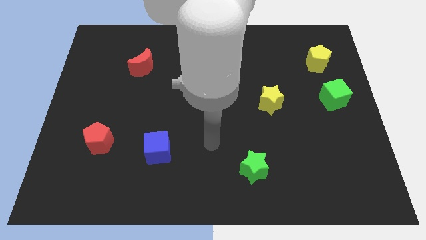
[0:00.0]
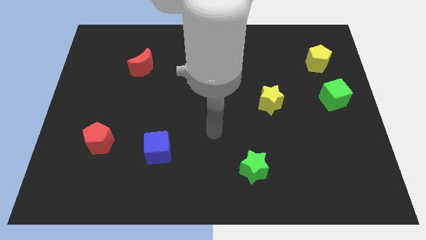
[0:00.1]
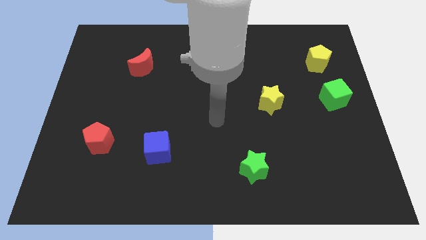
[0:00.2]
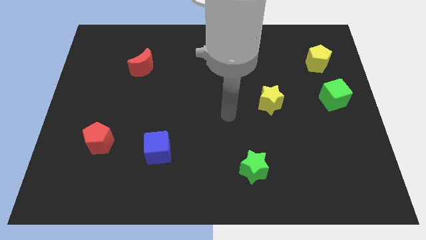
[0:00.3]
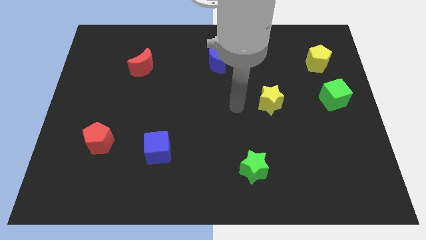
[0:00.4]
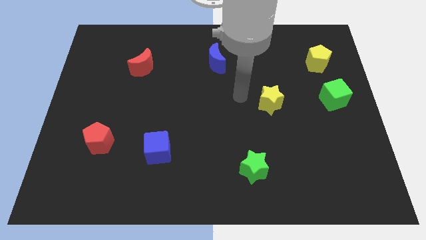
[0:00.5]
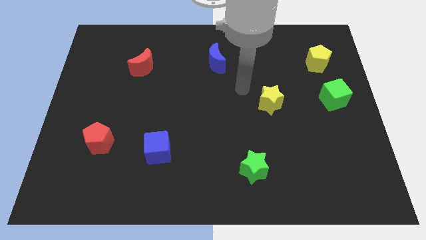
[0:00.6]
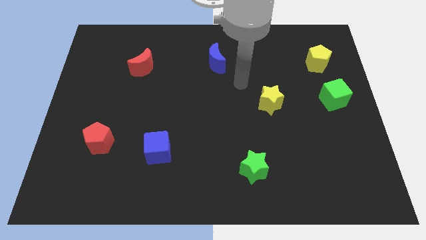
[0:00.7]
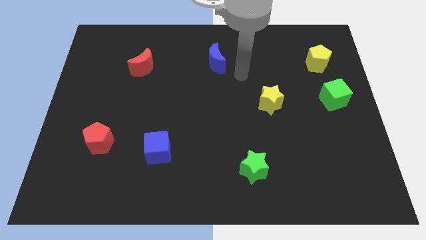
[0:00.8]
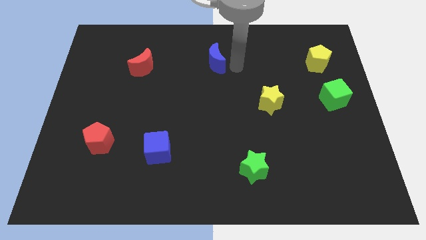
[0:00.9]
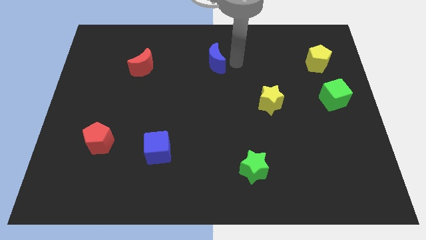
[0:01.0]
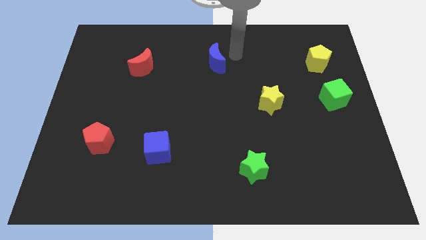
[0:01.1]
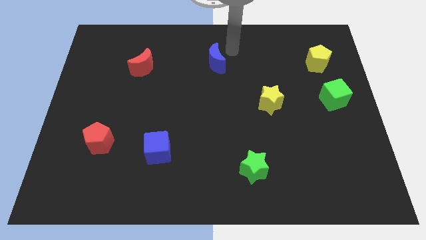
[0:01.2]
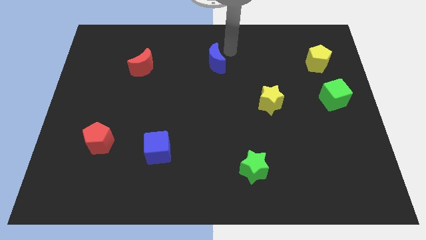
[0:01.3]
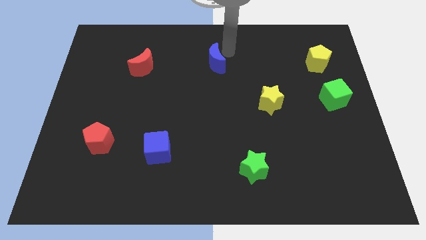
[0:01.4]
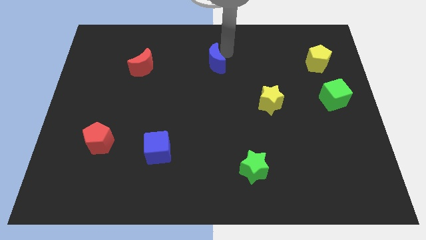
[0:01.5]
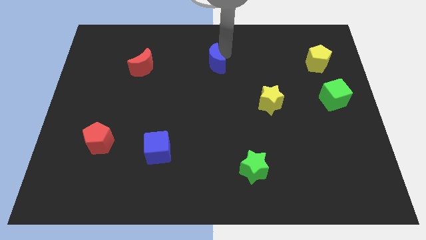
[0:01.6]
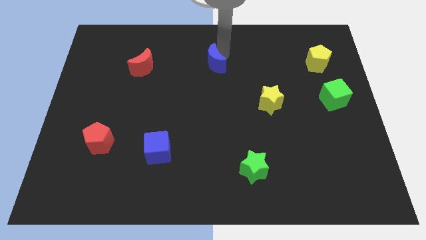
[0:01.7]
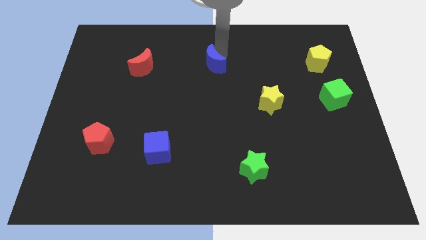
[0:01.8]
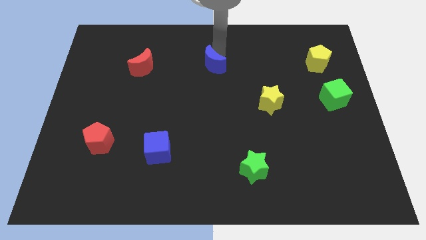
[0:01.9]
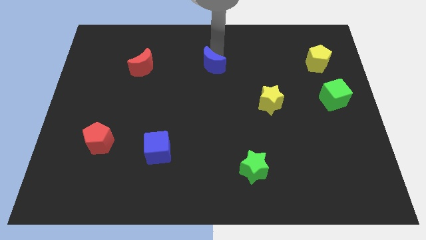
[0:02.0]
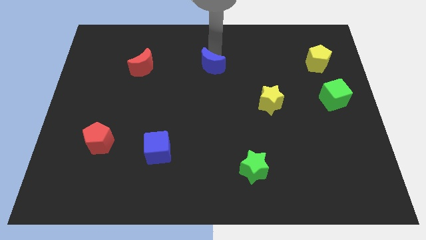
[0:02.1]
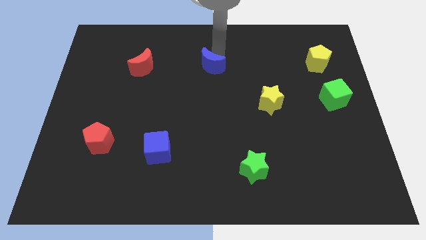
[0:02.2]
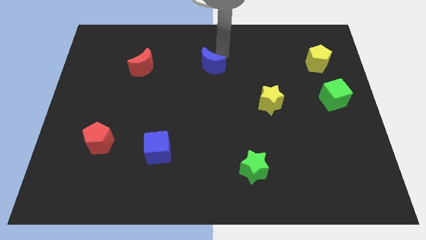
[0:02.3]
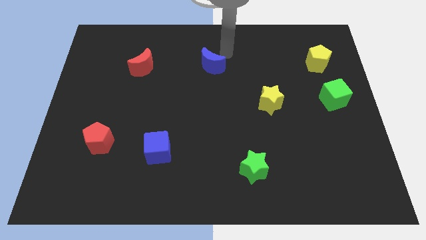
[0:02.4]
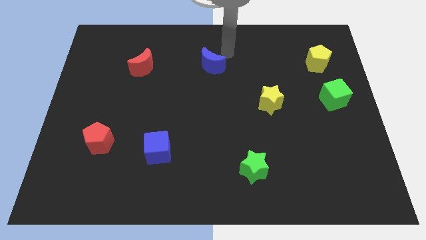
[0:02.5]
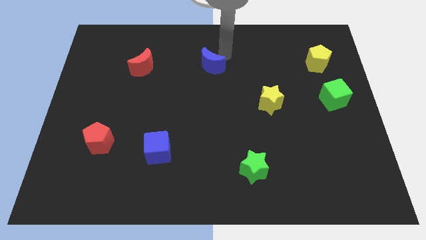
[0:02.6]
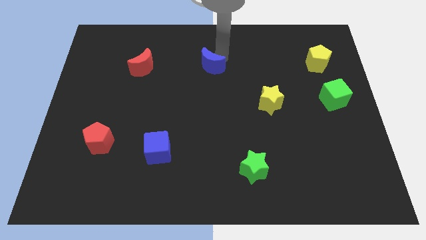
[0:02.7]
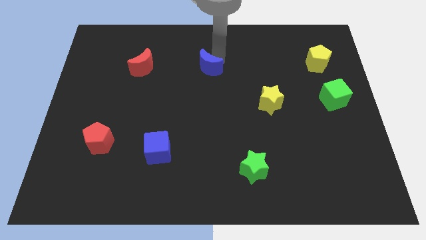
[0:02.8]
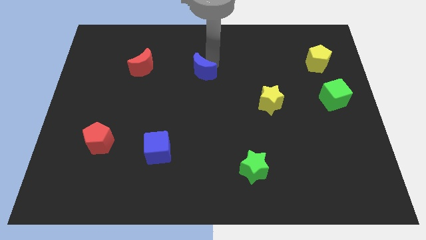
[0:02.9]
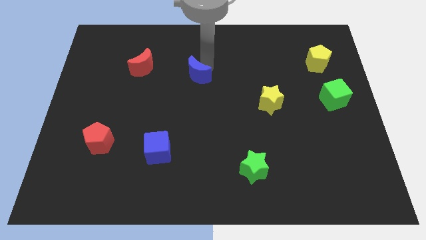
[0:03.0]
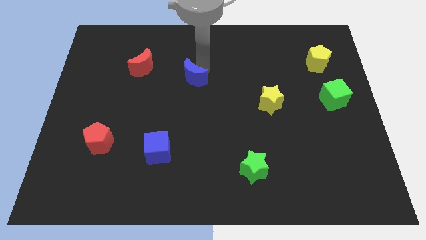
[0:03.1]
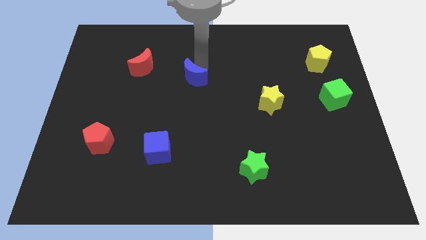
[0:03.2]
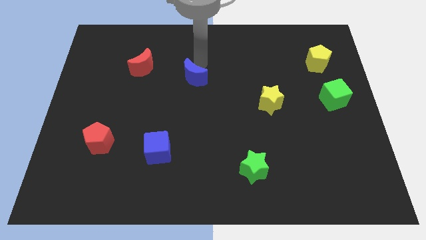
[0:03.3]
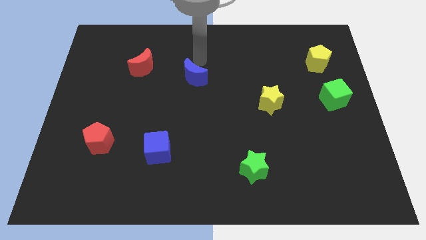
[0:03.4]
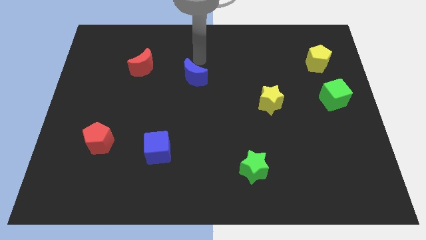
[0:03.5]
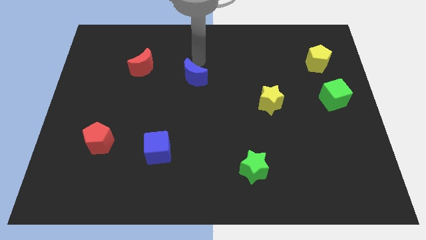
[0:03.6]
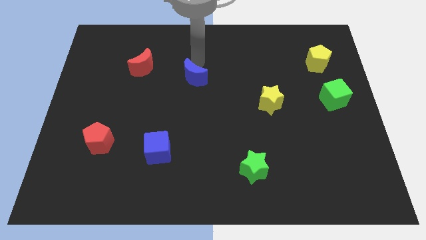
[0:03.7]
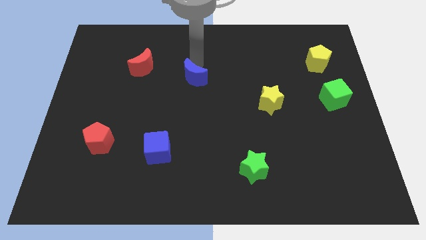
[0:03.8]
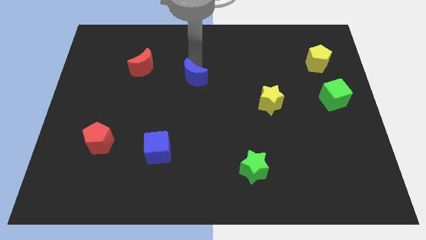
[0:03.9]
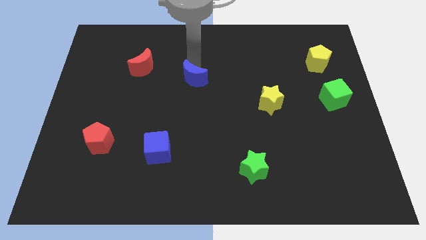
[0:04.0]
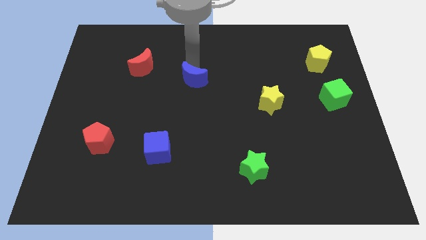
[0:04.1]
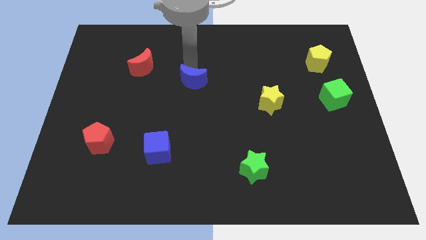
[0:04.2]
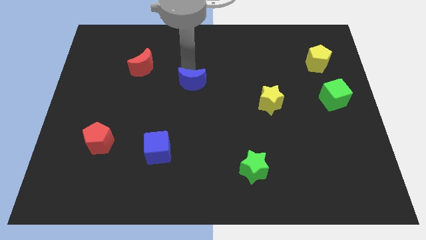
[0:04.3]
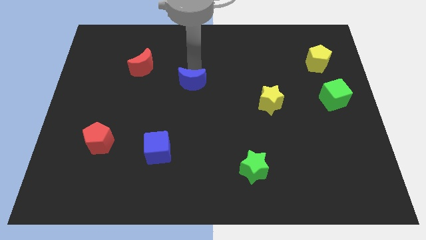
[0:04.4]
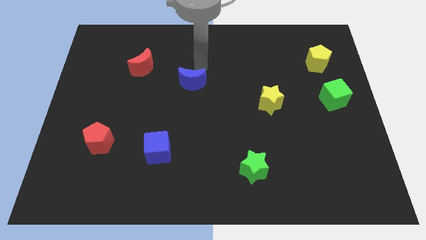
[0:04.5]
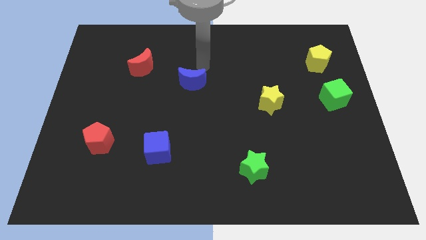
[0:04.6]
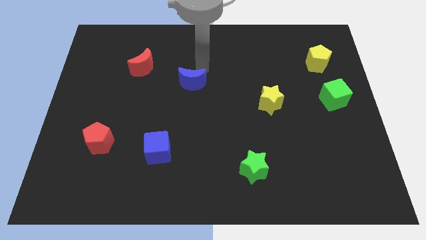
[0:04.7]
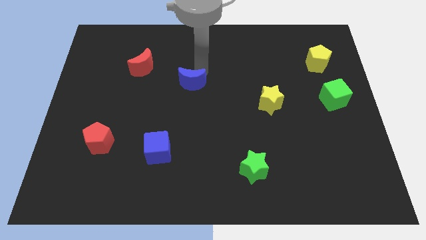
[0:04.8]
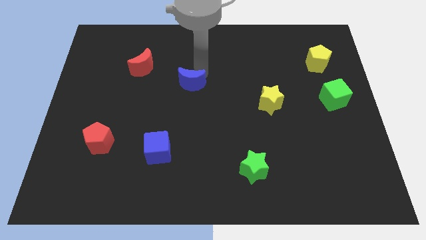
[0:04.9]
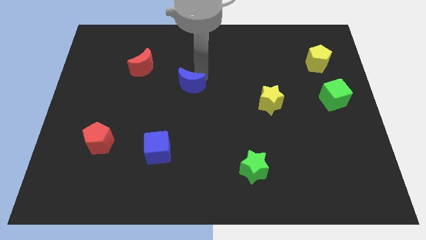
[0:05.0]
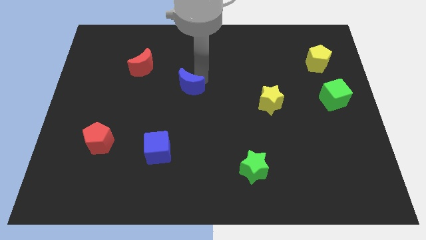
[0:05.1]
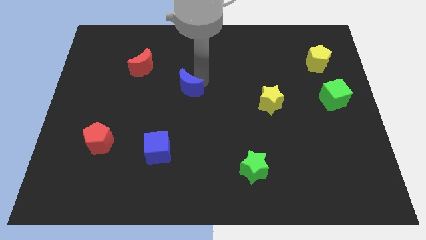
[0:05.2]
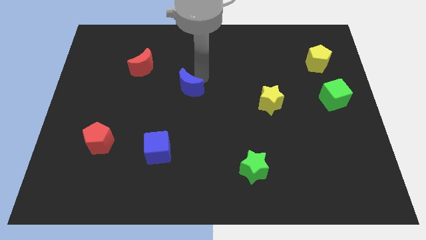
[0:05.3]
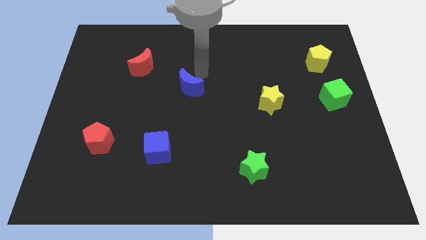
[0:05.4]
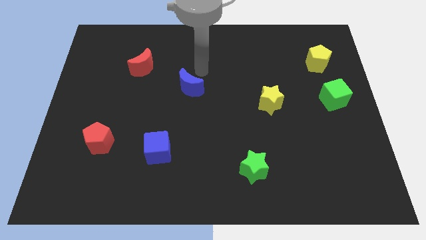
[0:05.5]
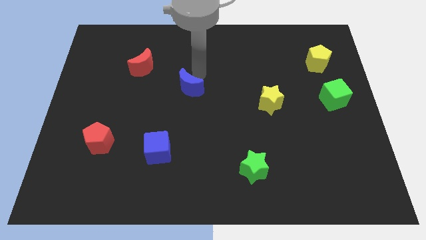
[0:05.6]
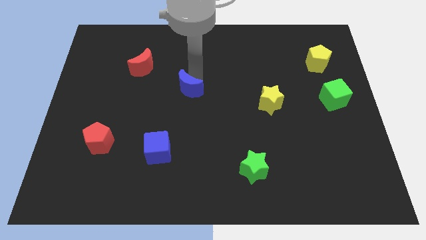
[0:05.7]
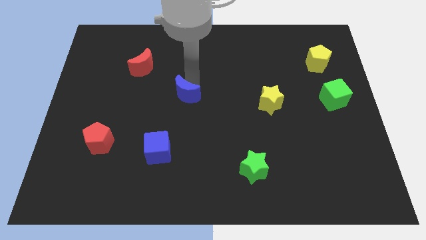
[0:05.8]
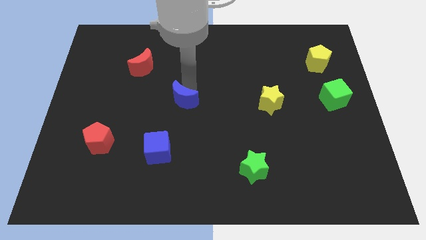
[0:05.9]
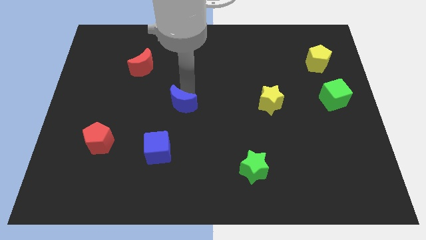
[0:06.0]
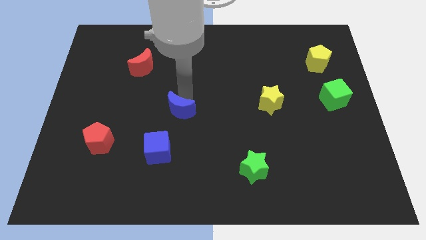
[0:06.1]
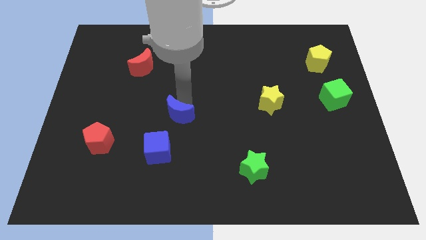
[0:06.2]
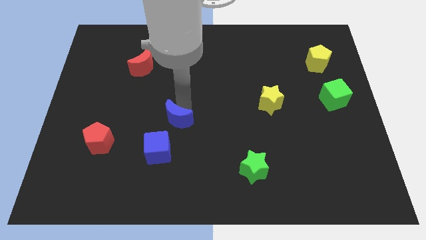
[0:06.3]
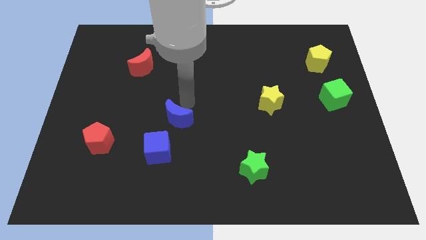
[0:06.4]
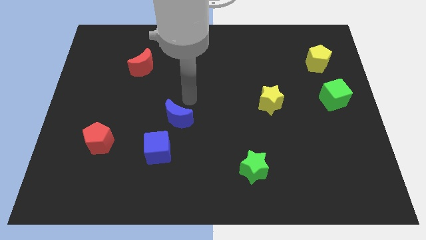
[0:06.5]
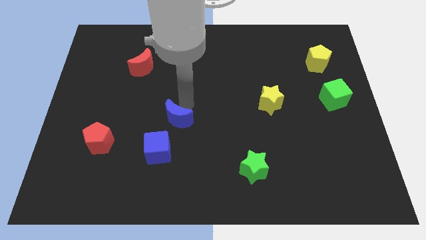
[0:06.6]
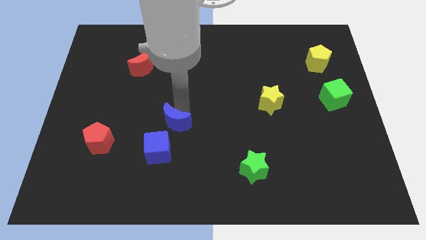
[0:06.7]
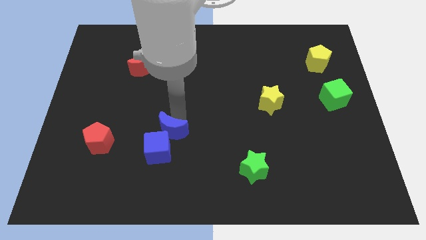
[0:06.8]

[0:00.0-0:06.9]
slide the blue moon close to the blue cube

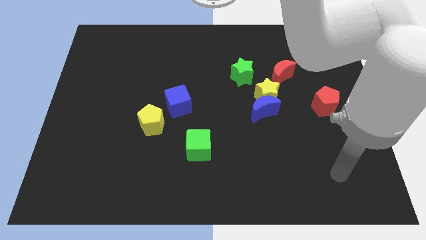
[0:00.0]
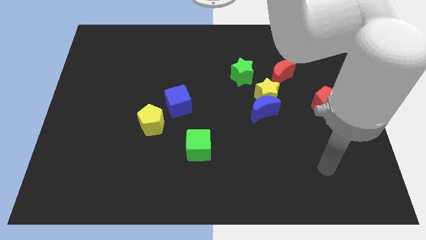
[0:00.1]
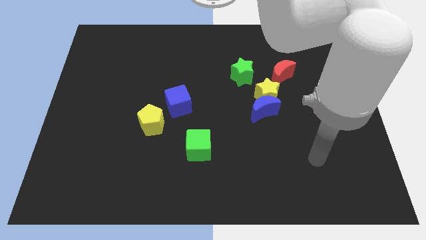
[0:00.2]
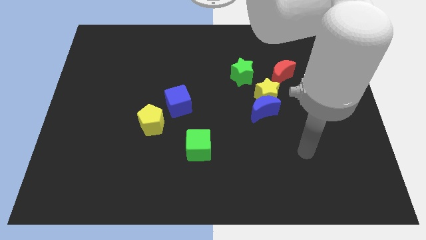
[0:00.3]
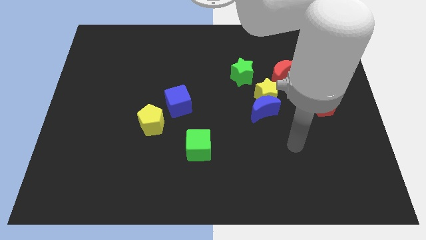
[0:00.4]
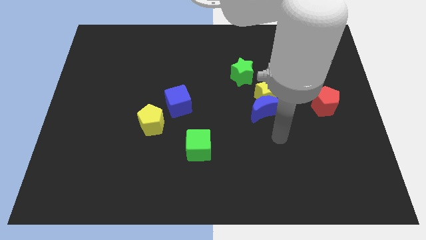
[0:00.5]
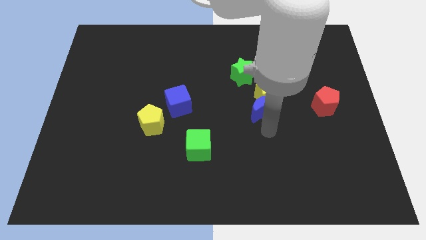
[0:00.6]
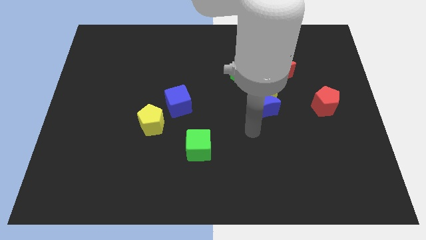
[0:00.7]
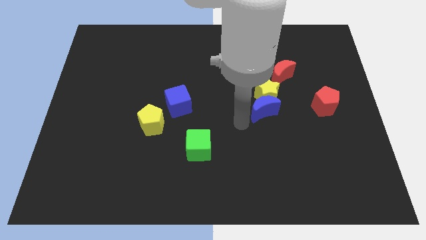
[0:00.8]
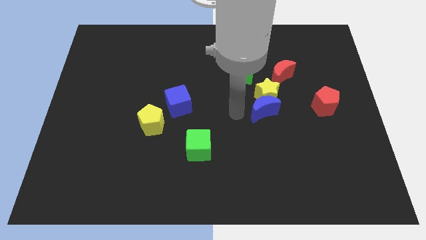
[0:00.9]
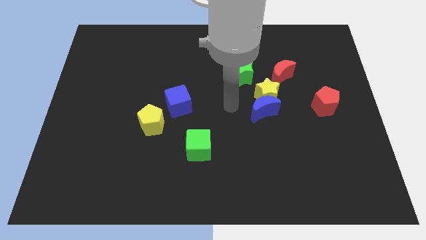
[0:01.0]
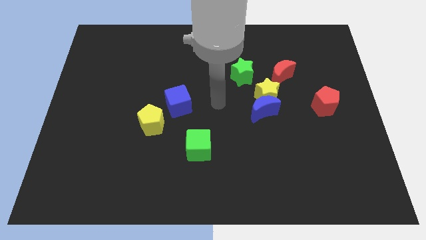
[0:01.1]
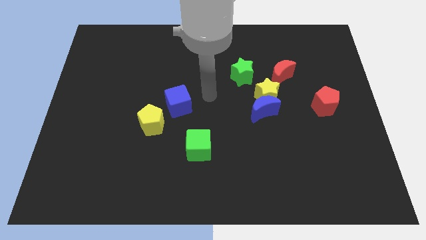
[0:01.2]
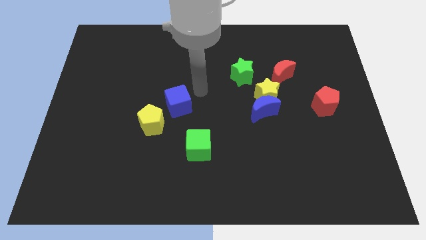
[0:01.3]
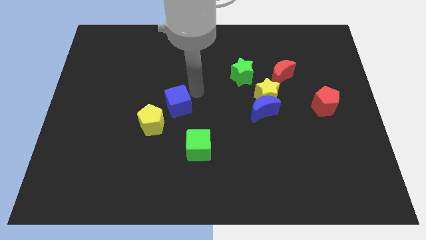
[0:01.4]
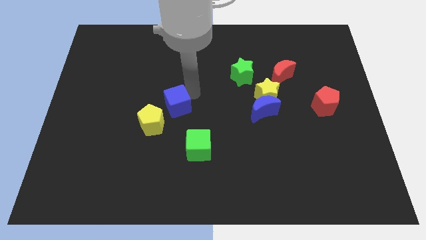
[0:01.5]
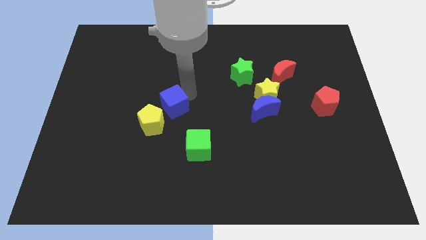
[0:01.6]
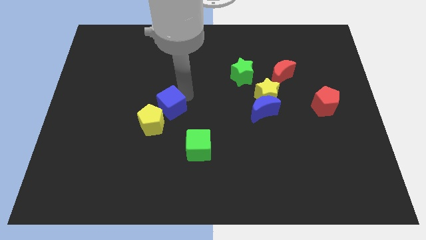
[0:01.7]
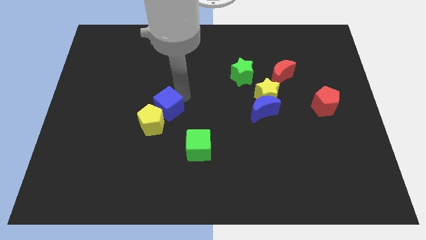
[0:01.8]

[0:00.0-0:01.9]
put the blue cube close to the yellow pentagon
